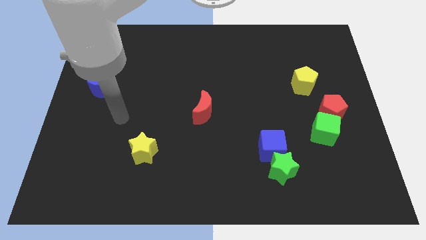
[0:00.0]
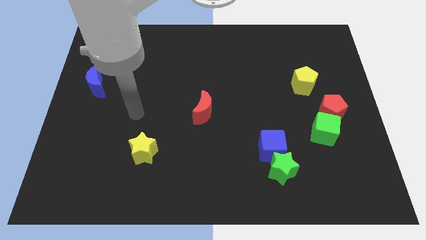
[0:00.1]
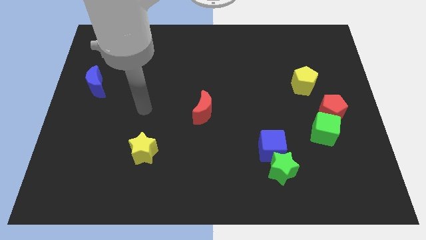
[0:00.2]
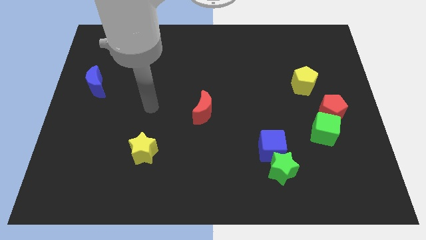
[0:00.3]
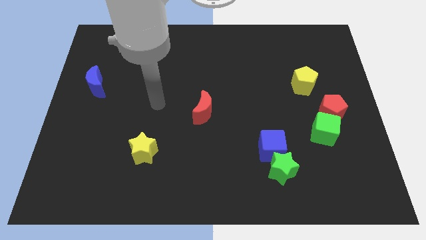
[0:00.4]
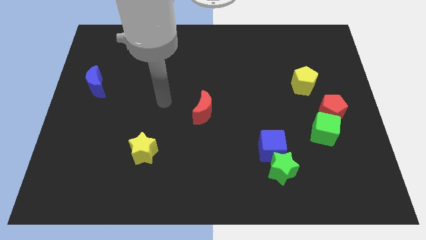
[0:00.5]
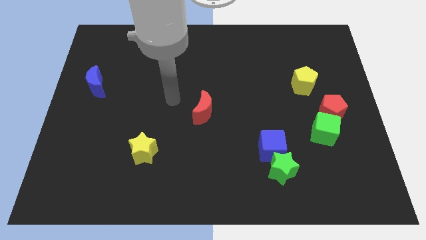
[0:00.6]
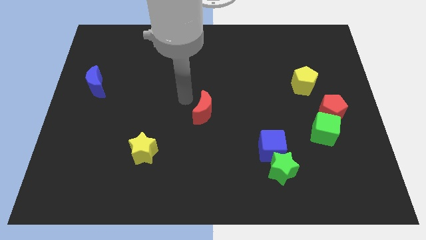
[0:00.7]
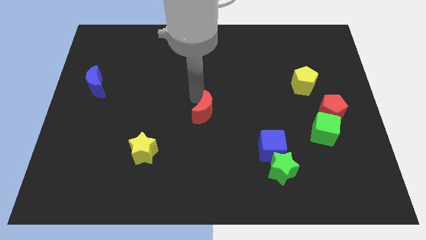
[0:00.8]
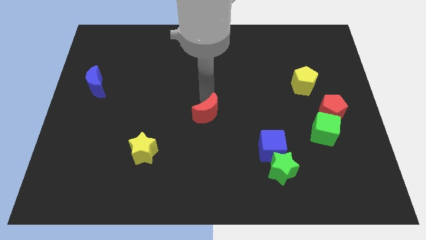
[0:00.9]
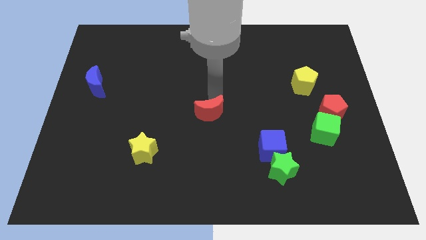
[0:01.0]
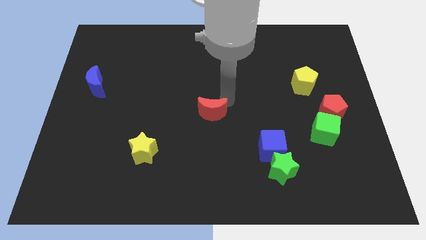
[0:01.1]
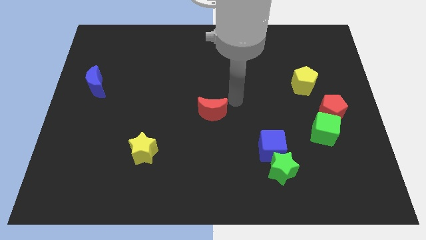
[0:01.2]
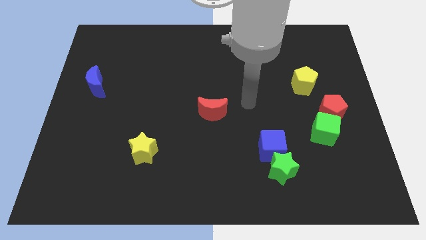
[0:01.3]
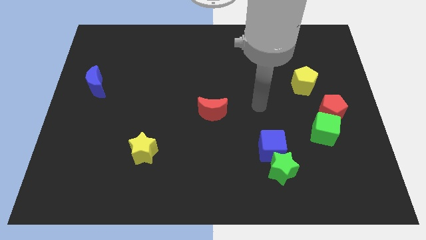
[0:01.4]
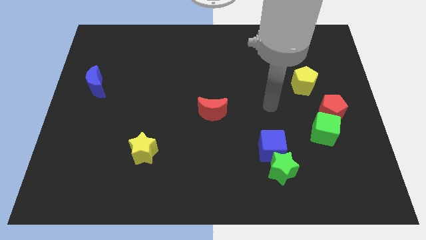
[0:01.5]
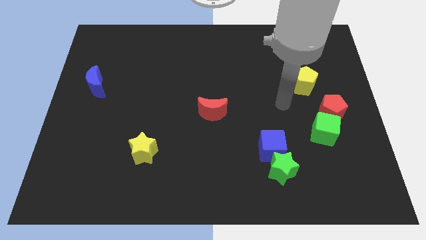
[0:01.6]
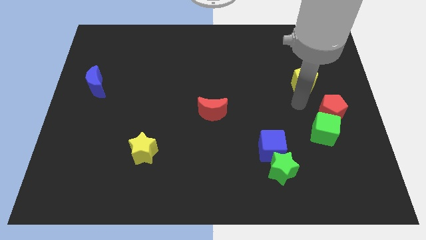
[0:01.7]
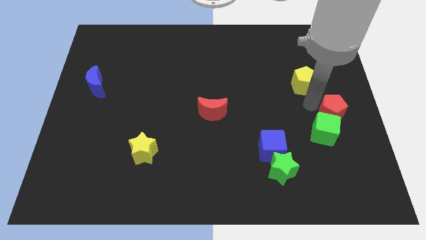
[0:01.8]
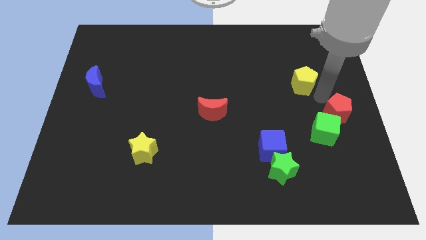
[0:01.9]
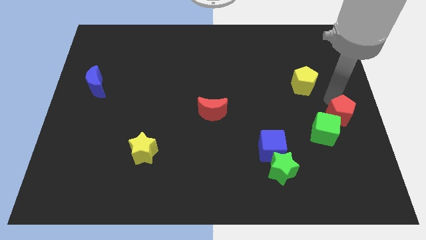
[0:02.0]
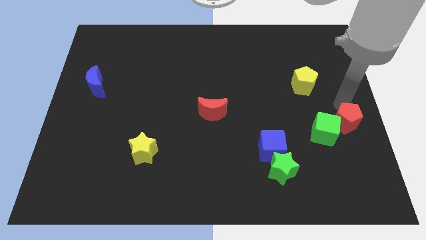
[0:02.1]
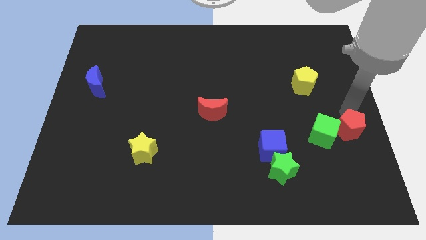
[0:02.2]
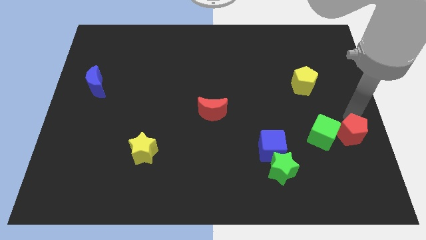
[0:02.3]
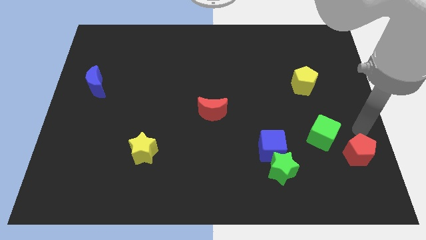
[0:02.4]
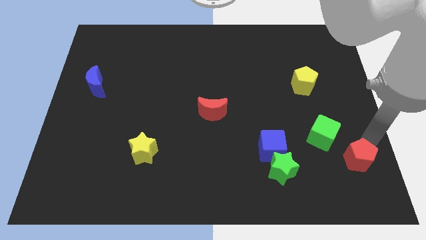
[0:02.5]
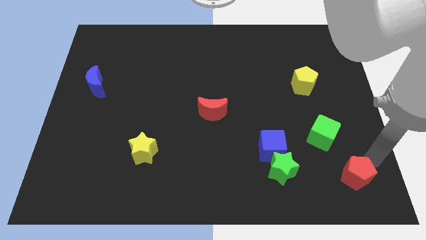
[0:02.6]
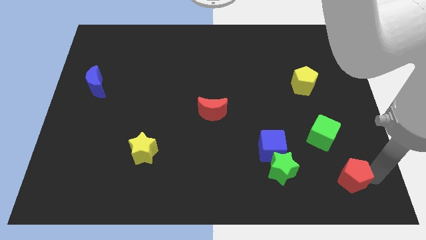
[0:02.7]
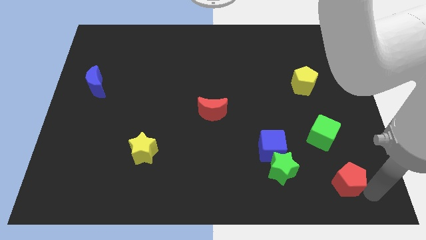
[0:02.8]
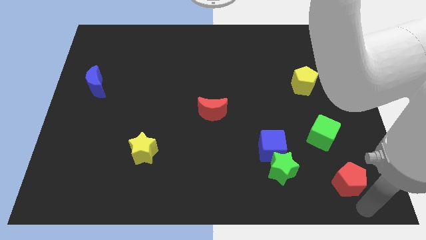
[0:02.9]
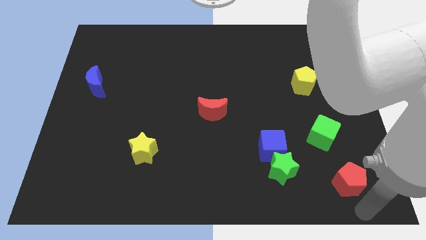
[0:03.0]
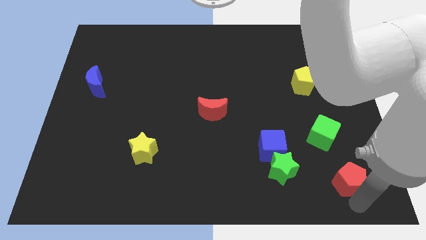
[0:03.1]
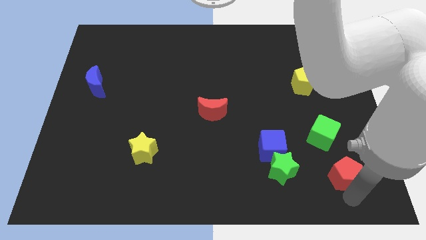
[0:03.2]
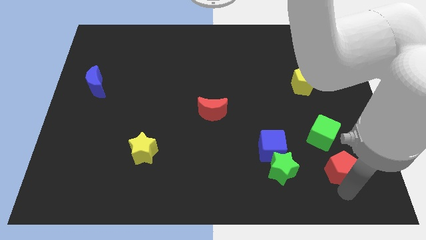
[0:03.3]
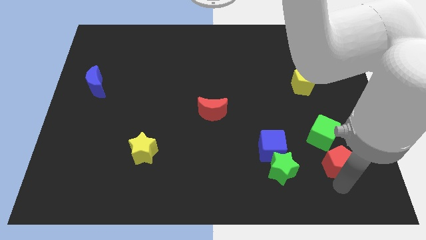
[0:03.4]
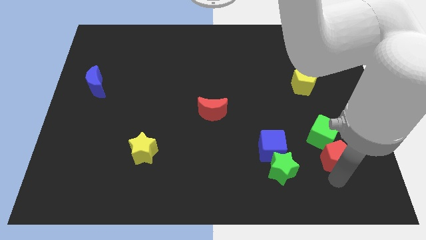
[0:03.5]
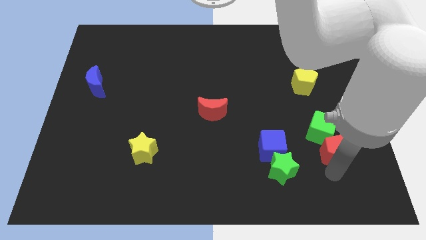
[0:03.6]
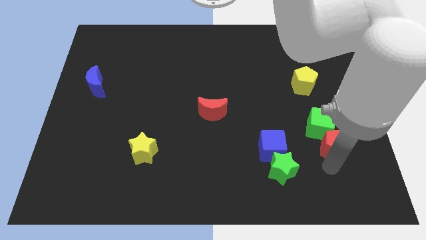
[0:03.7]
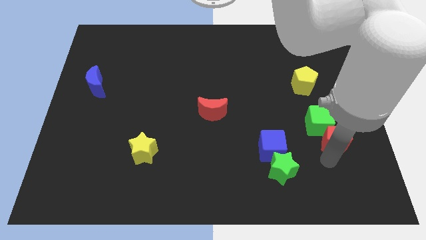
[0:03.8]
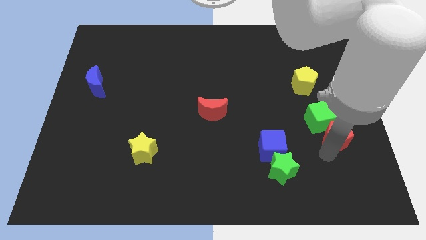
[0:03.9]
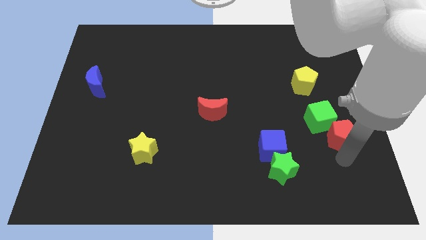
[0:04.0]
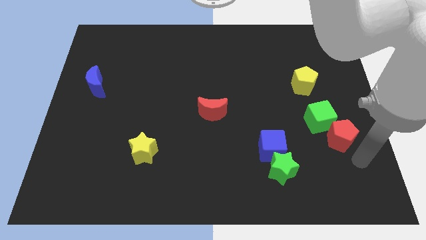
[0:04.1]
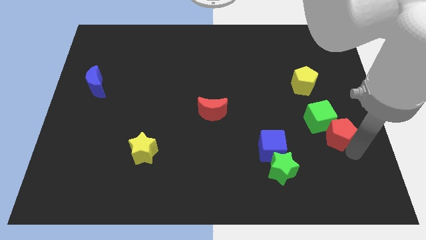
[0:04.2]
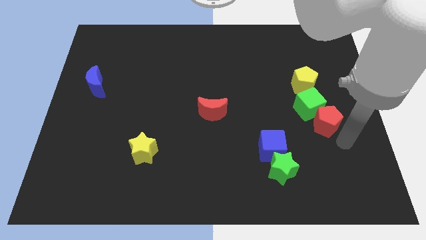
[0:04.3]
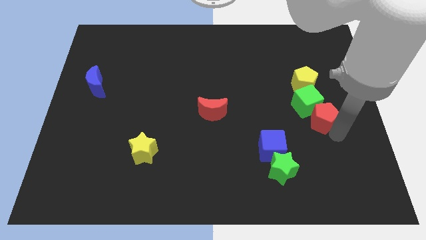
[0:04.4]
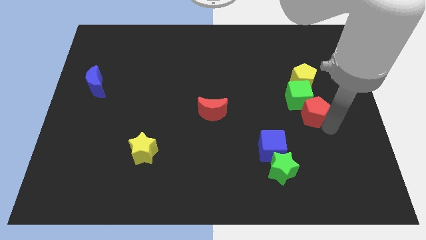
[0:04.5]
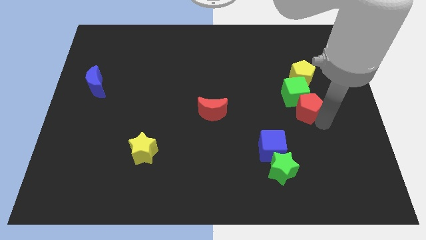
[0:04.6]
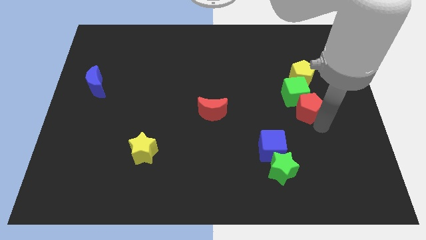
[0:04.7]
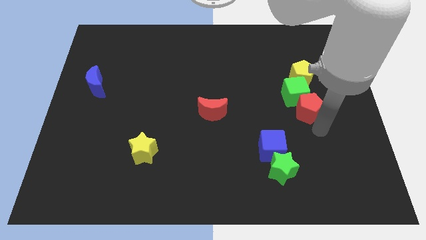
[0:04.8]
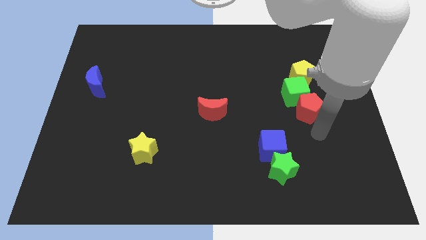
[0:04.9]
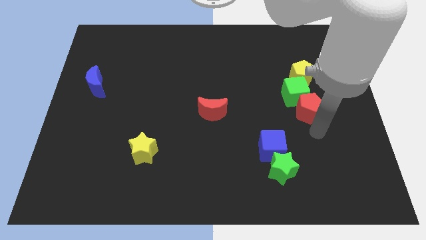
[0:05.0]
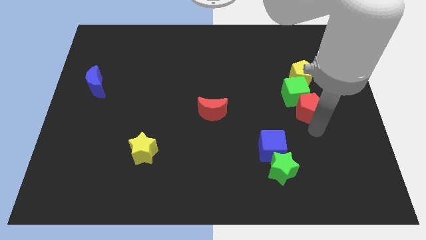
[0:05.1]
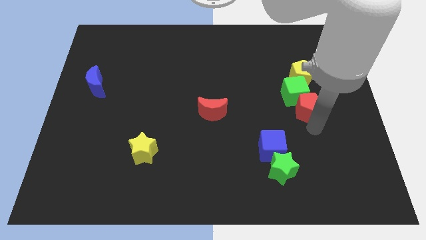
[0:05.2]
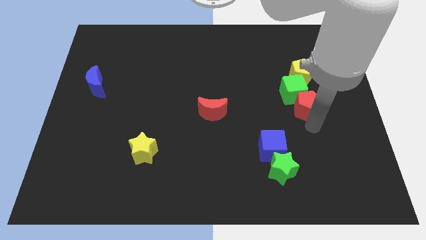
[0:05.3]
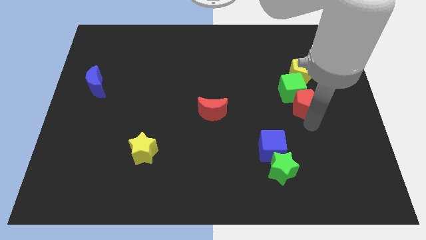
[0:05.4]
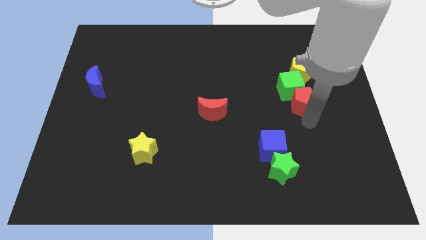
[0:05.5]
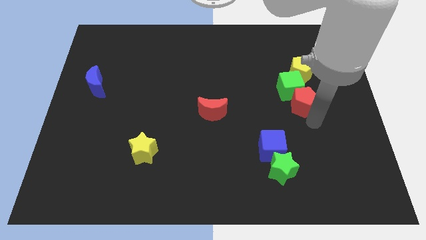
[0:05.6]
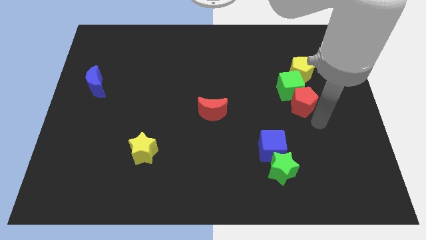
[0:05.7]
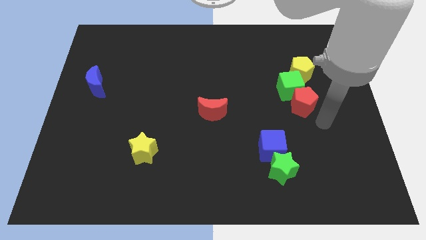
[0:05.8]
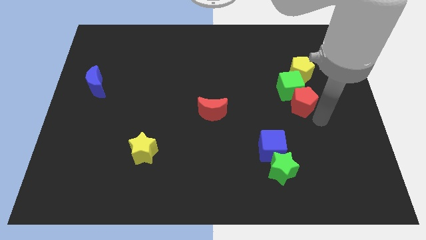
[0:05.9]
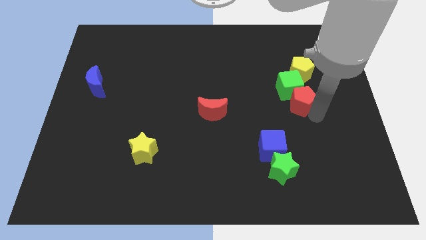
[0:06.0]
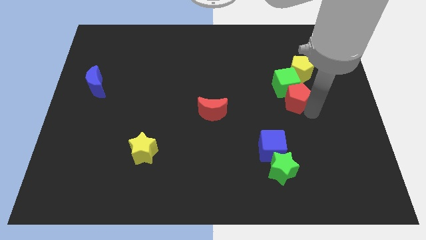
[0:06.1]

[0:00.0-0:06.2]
slightly move the red pentagon upwards and to the left diagonally

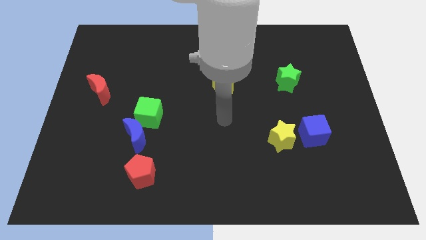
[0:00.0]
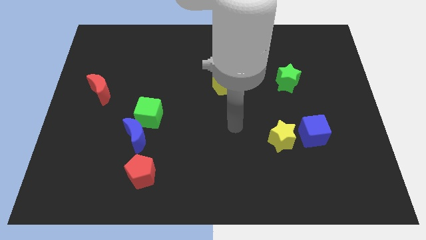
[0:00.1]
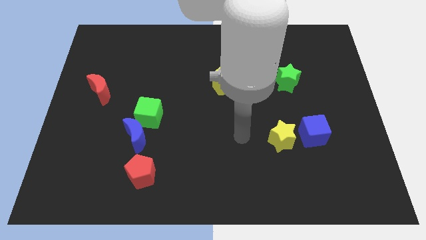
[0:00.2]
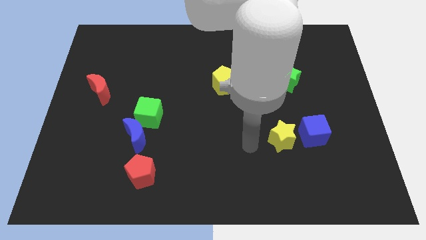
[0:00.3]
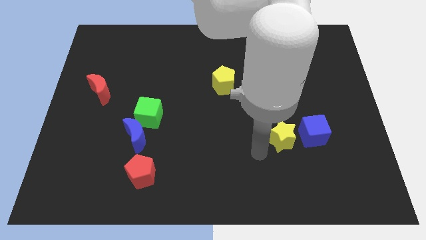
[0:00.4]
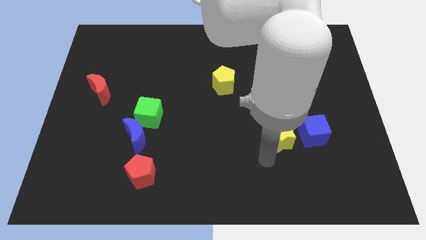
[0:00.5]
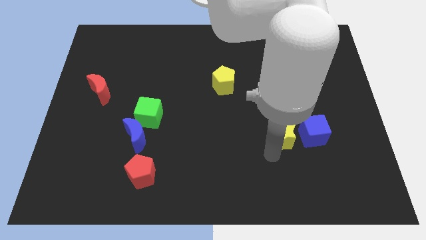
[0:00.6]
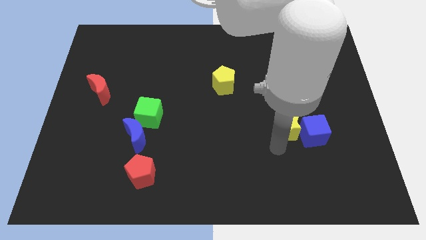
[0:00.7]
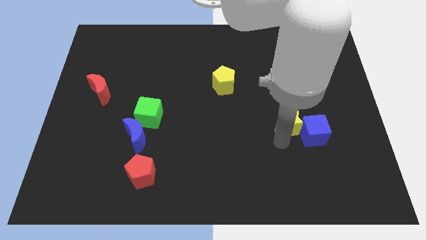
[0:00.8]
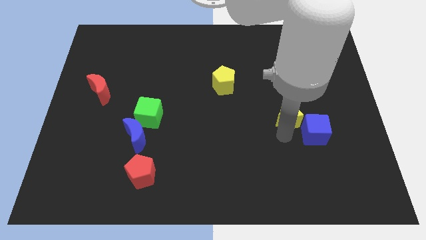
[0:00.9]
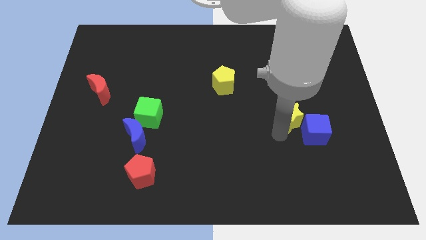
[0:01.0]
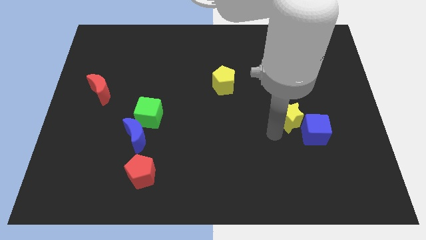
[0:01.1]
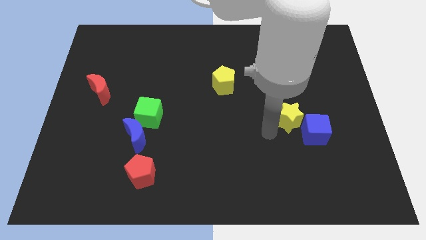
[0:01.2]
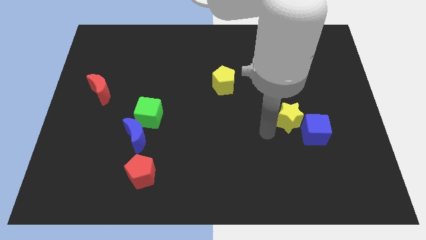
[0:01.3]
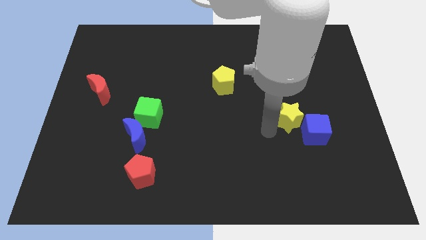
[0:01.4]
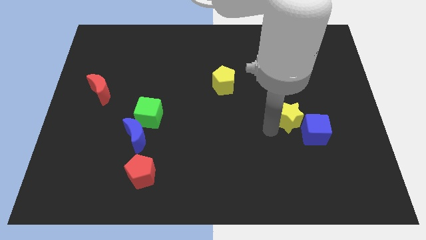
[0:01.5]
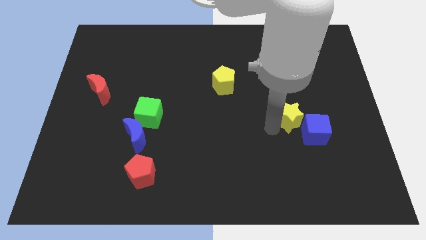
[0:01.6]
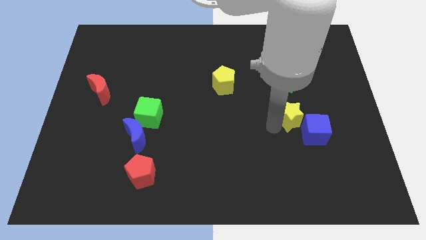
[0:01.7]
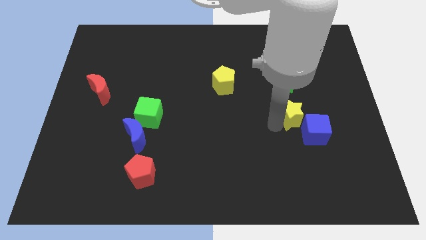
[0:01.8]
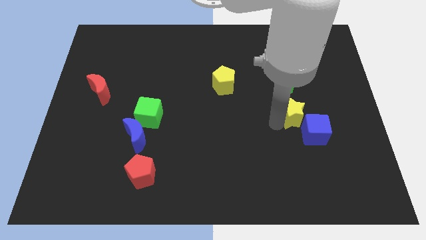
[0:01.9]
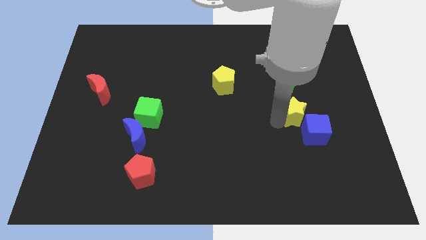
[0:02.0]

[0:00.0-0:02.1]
slide the yellow star upwards and right diagonally slightly
